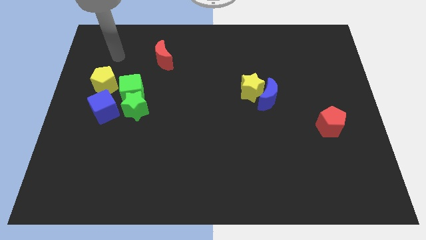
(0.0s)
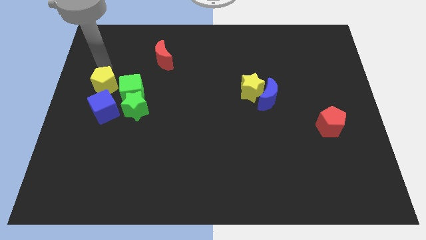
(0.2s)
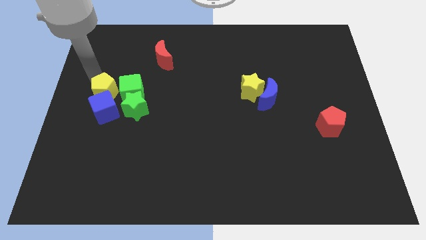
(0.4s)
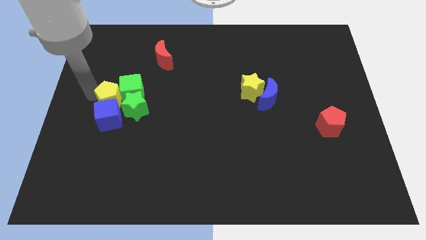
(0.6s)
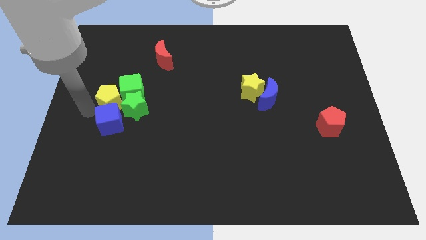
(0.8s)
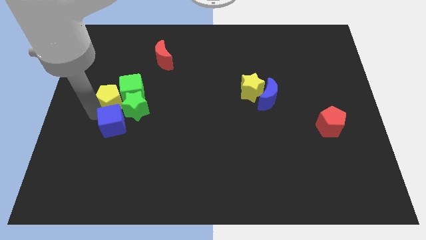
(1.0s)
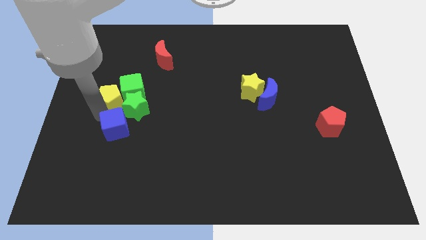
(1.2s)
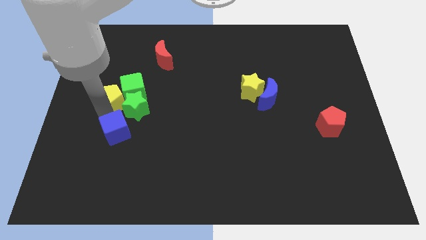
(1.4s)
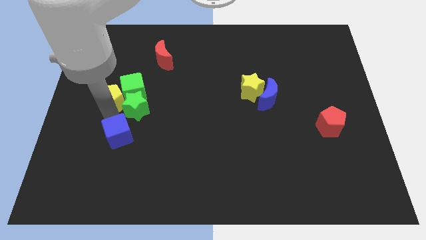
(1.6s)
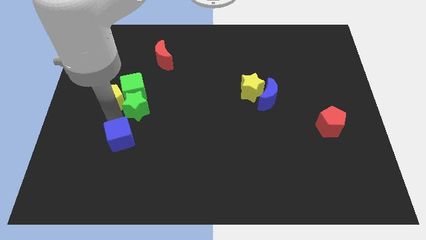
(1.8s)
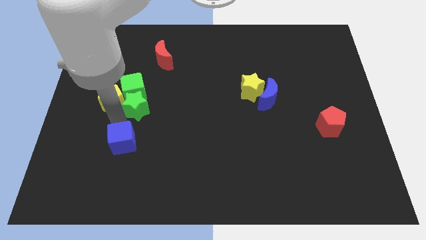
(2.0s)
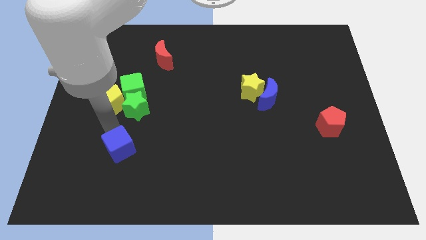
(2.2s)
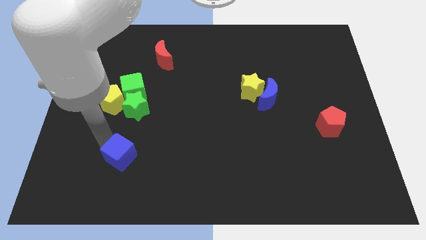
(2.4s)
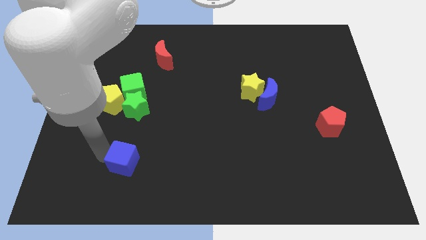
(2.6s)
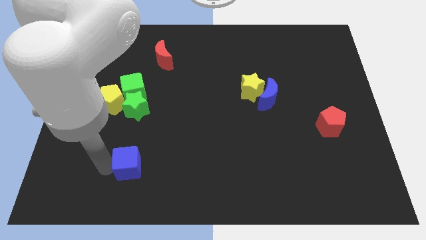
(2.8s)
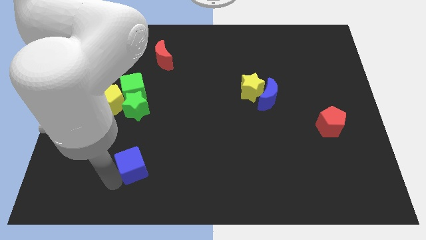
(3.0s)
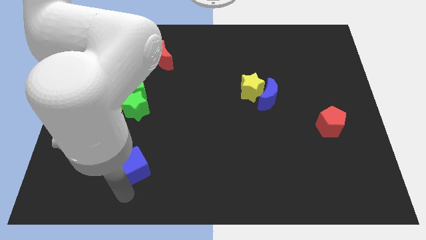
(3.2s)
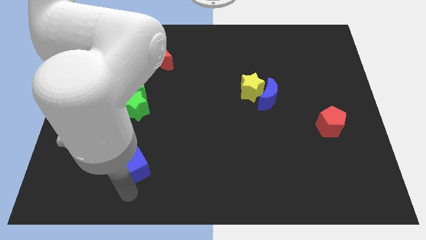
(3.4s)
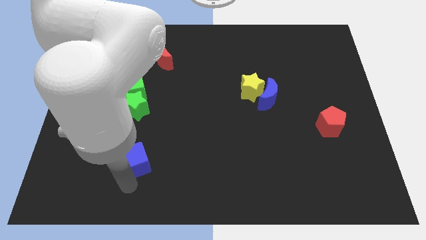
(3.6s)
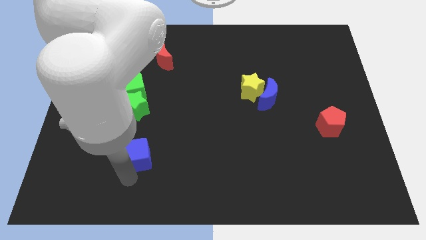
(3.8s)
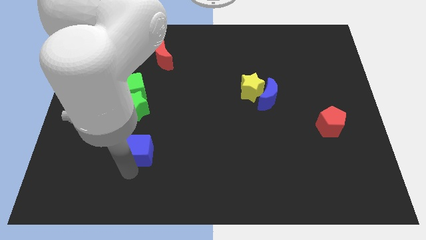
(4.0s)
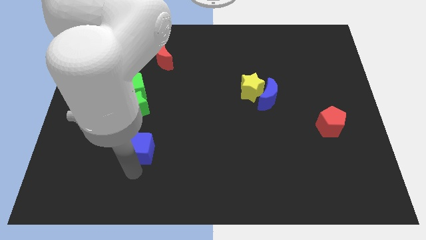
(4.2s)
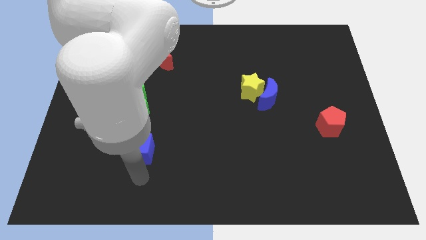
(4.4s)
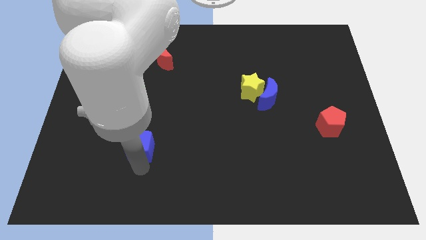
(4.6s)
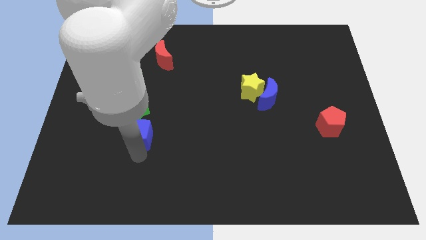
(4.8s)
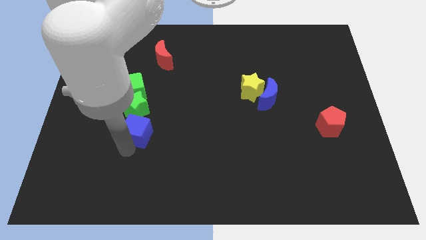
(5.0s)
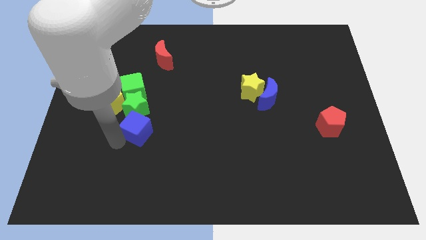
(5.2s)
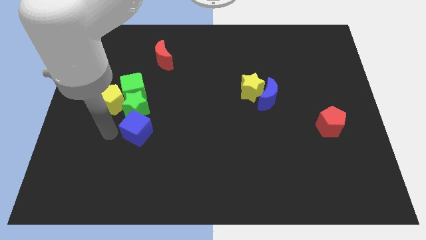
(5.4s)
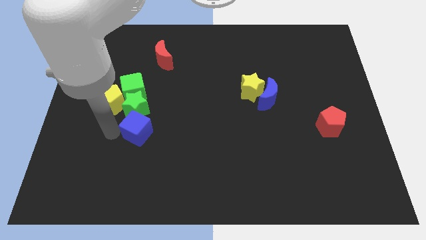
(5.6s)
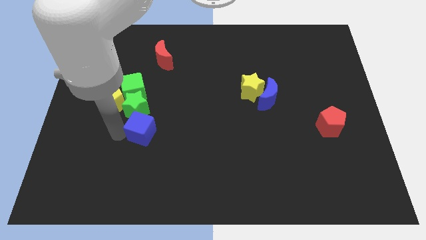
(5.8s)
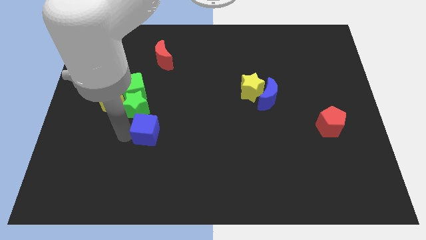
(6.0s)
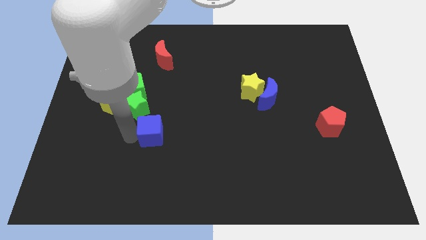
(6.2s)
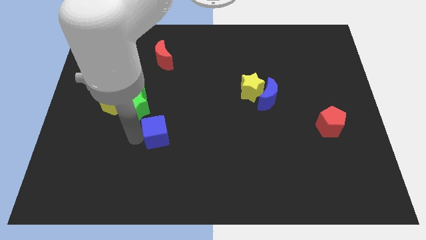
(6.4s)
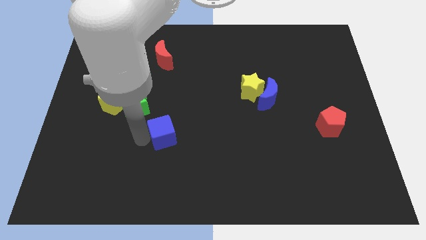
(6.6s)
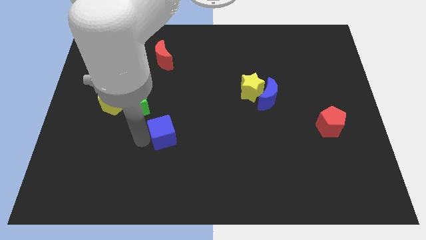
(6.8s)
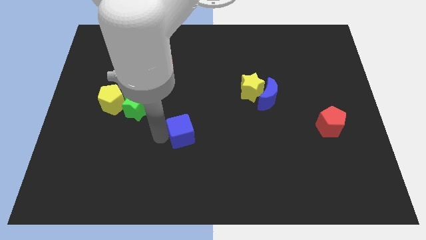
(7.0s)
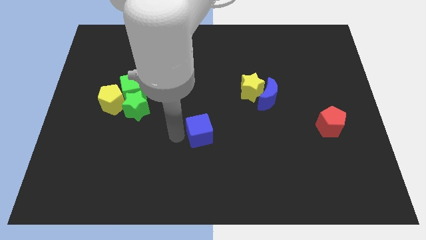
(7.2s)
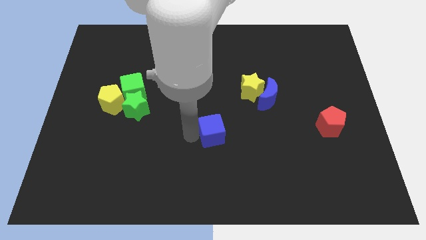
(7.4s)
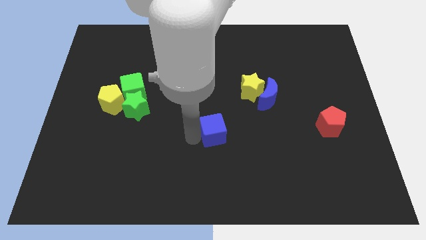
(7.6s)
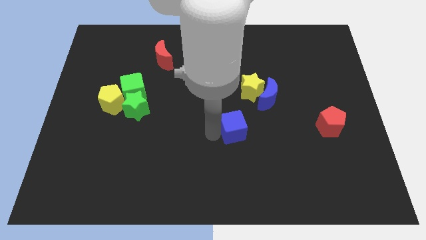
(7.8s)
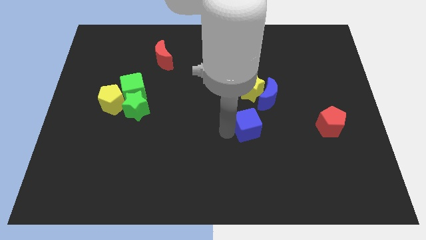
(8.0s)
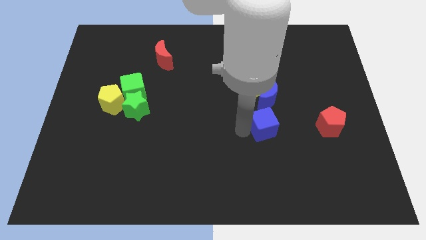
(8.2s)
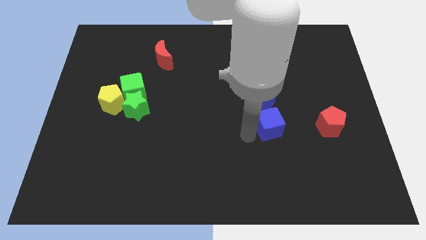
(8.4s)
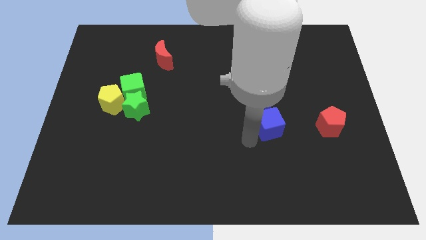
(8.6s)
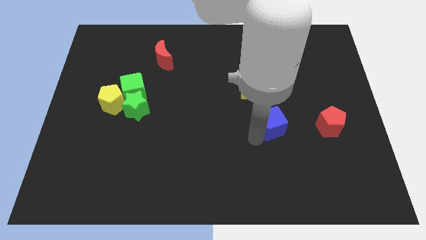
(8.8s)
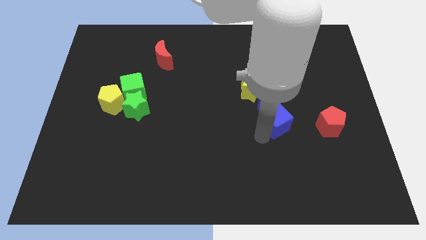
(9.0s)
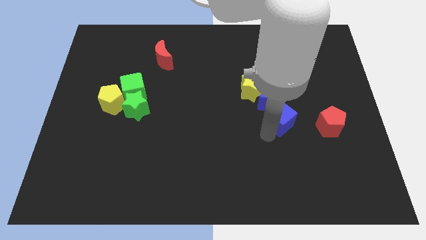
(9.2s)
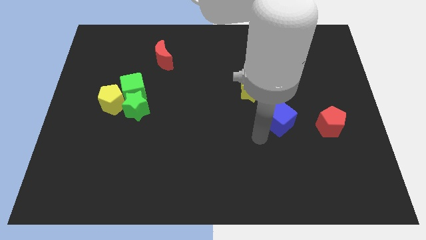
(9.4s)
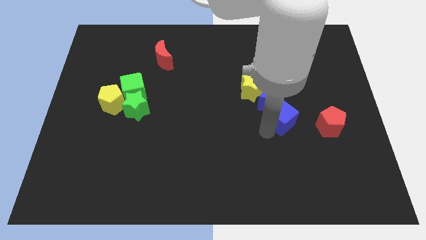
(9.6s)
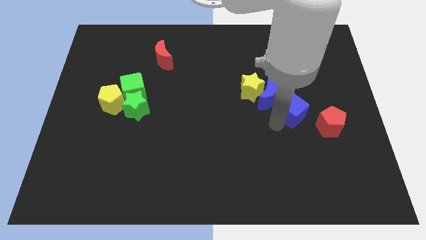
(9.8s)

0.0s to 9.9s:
slide the blue cube to the top left of the red pentagon

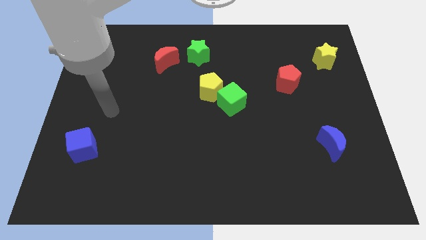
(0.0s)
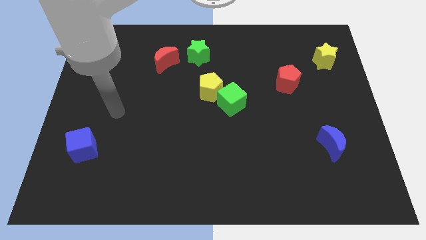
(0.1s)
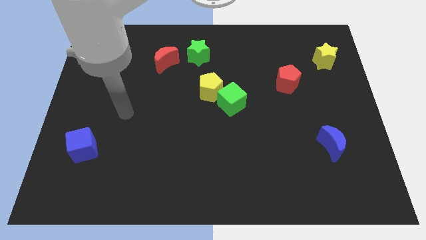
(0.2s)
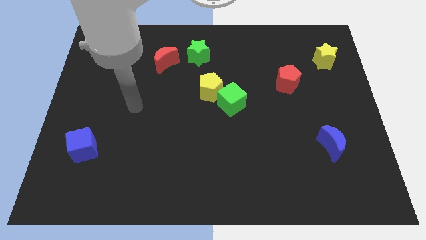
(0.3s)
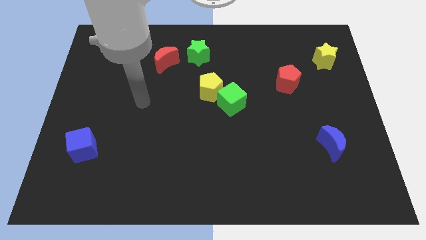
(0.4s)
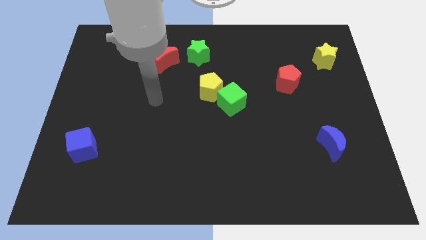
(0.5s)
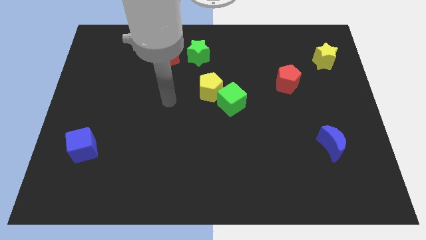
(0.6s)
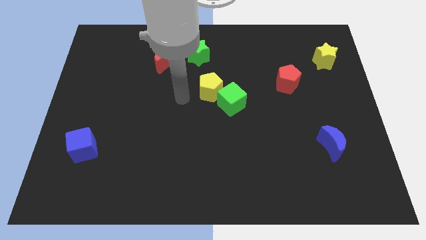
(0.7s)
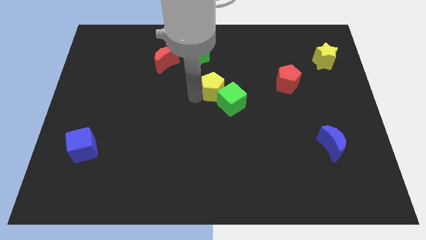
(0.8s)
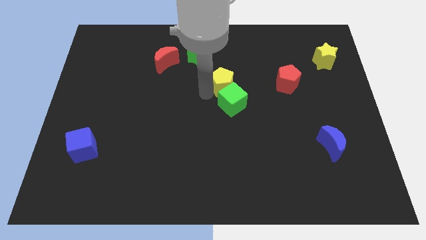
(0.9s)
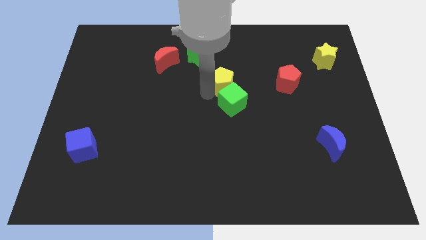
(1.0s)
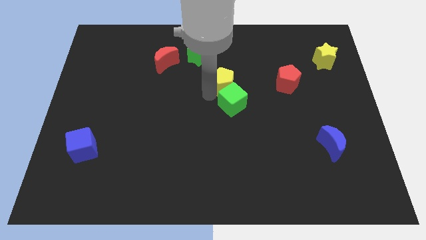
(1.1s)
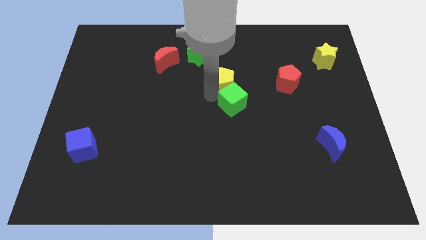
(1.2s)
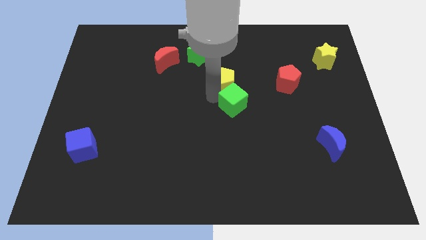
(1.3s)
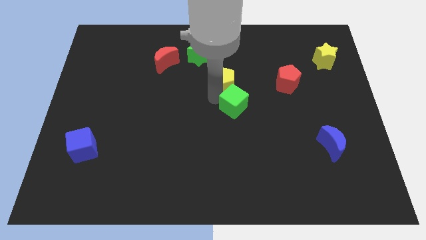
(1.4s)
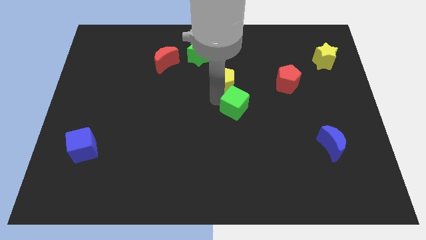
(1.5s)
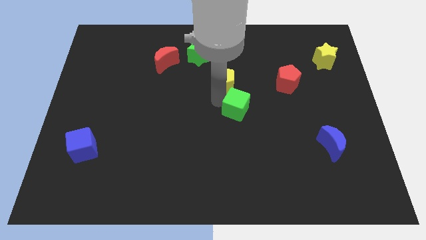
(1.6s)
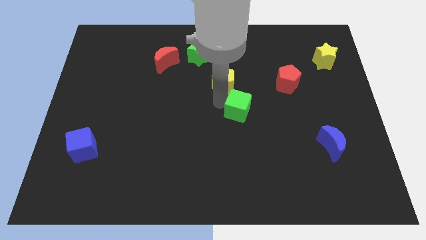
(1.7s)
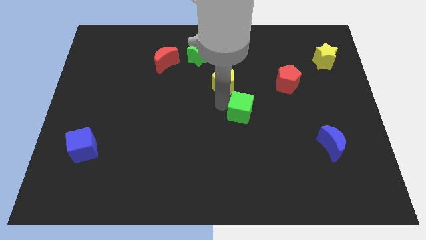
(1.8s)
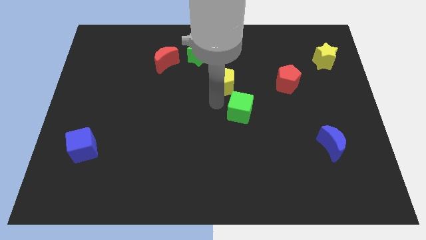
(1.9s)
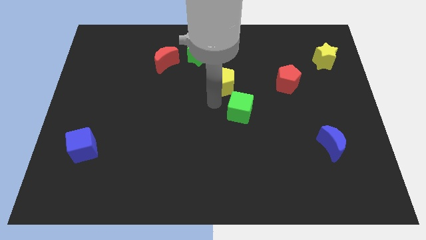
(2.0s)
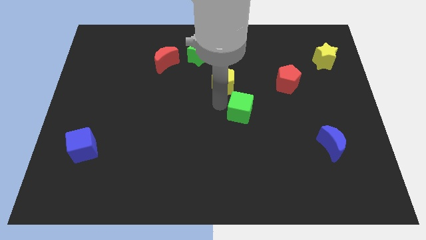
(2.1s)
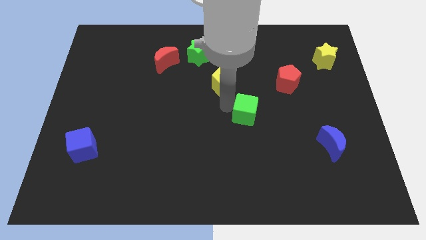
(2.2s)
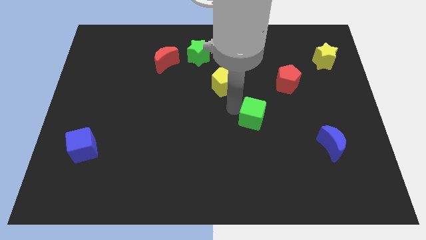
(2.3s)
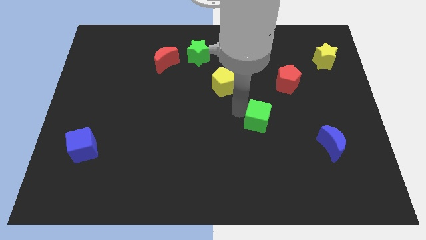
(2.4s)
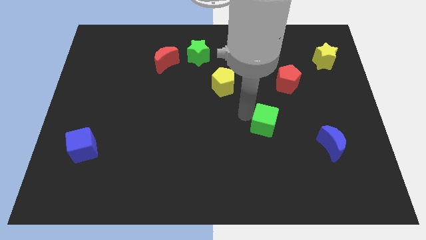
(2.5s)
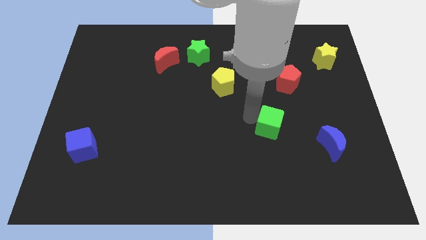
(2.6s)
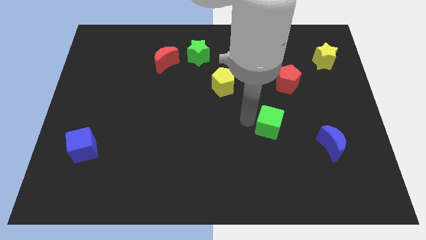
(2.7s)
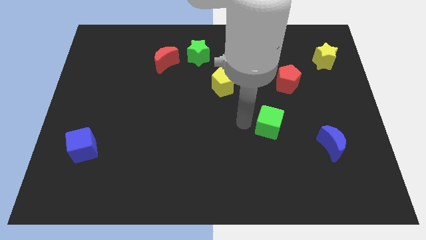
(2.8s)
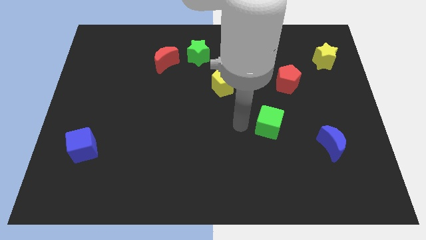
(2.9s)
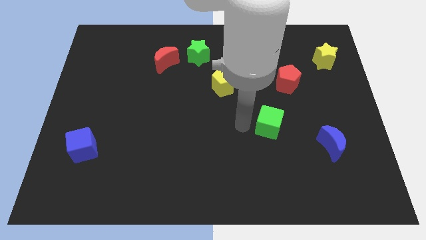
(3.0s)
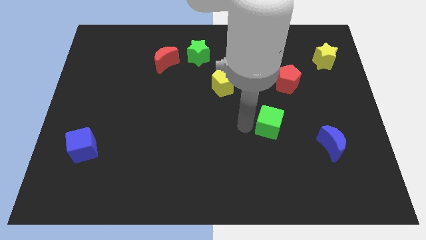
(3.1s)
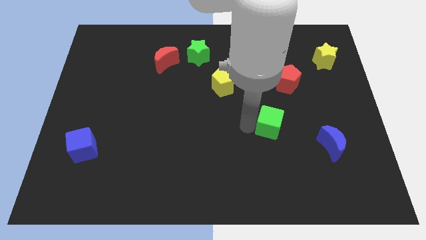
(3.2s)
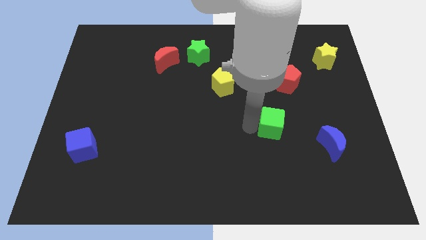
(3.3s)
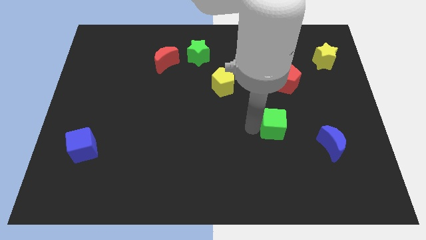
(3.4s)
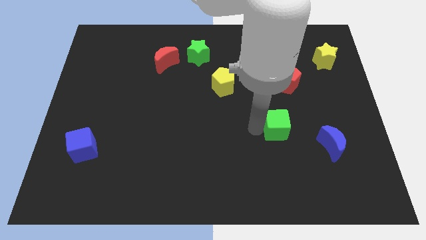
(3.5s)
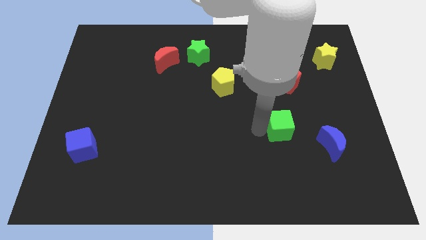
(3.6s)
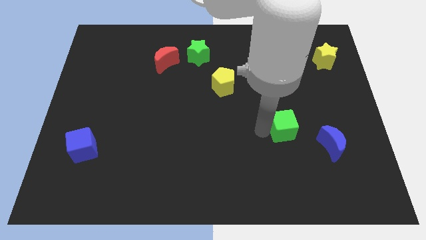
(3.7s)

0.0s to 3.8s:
slide the green cube diagonally up and to the left of the blue moon
